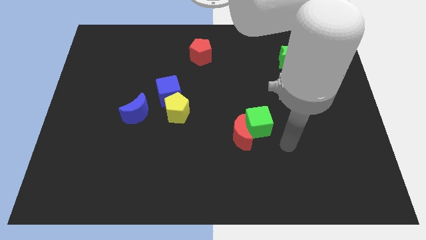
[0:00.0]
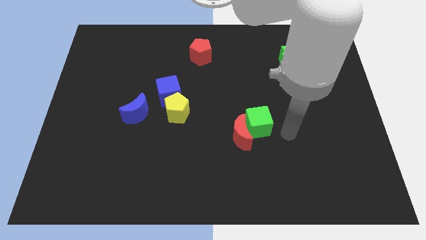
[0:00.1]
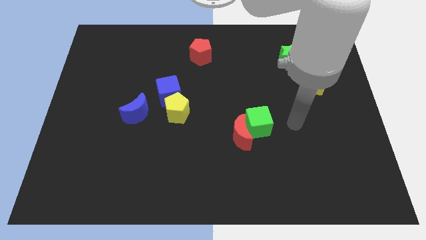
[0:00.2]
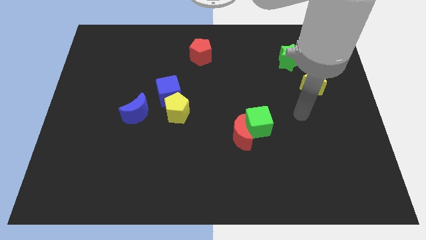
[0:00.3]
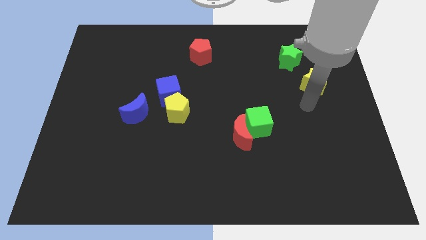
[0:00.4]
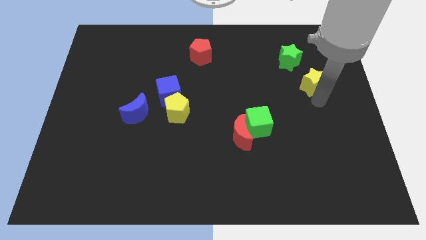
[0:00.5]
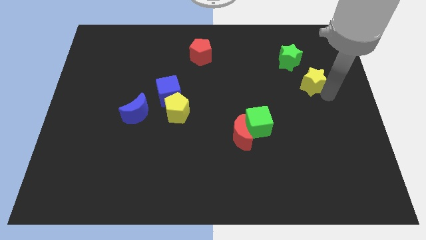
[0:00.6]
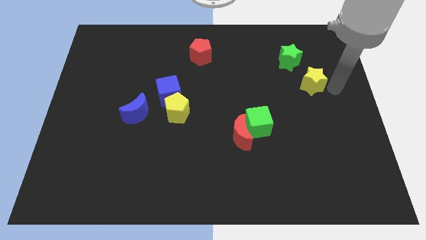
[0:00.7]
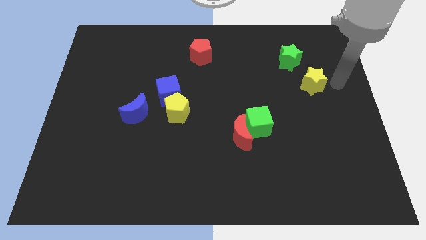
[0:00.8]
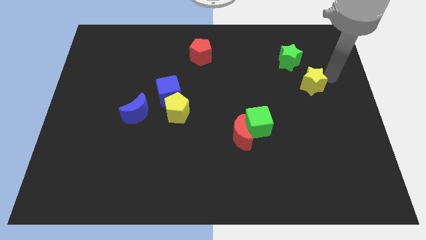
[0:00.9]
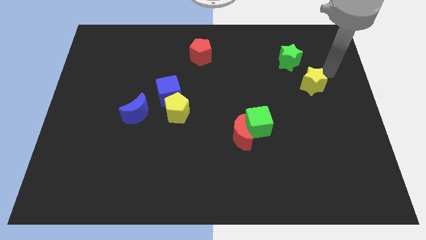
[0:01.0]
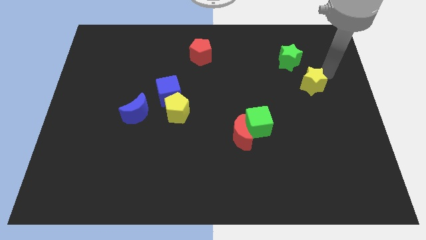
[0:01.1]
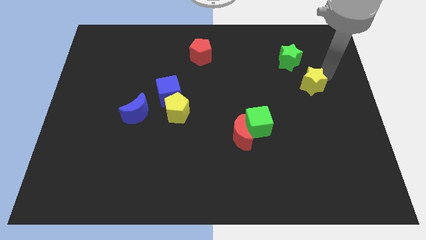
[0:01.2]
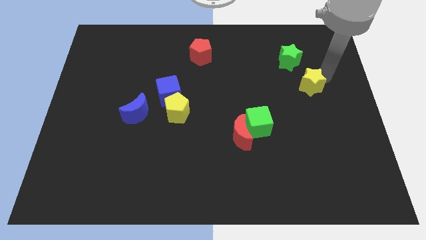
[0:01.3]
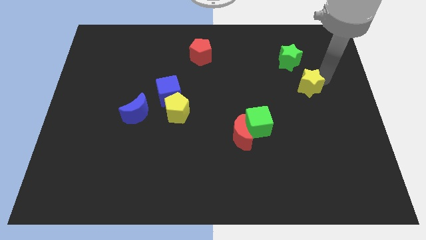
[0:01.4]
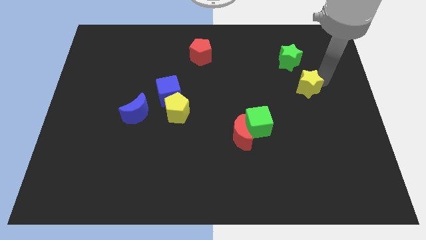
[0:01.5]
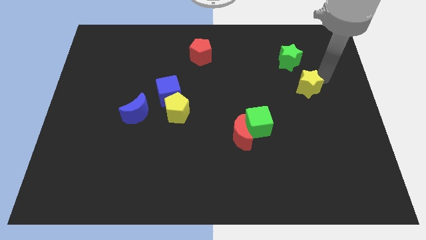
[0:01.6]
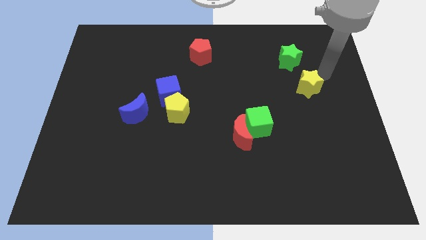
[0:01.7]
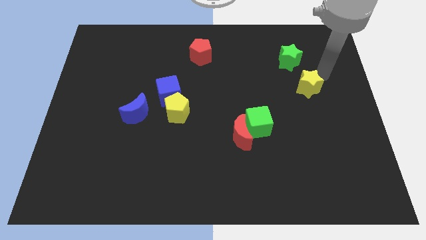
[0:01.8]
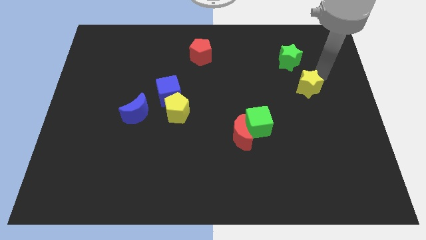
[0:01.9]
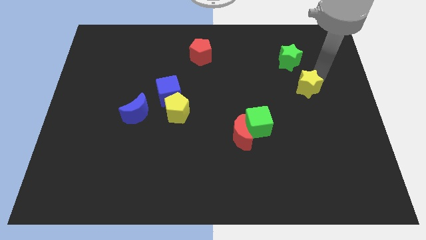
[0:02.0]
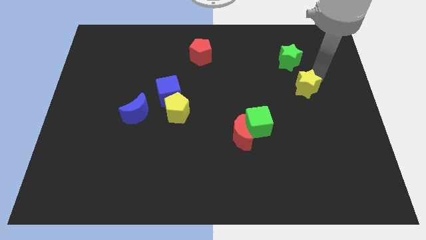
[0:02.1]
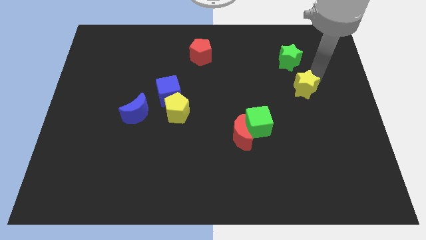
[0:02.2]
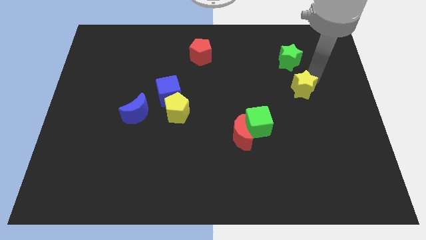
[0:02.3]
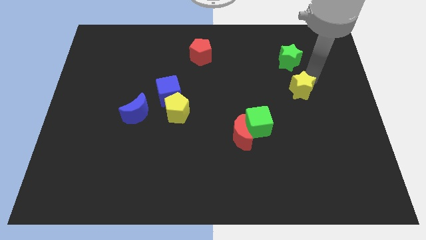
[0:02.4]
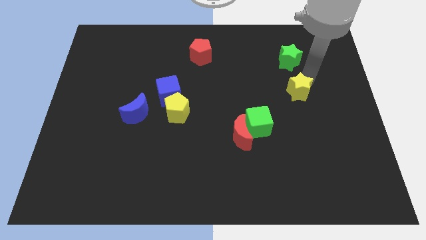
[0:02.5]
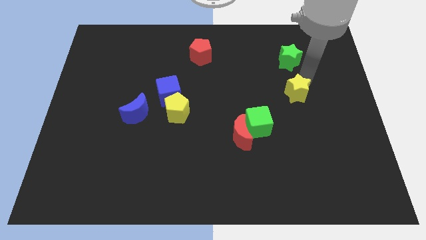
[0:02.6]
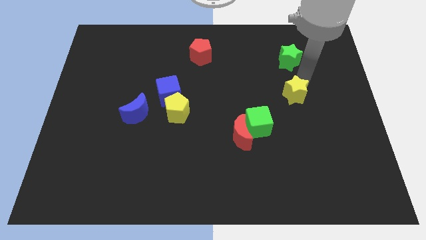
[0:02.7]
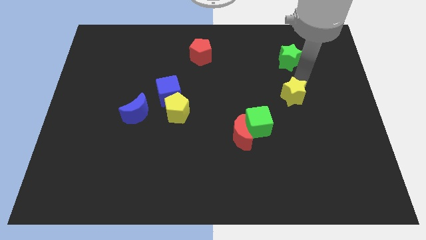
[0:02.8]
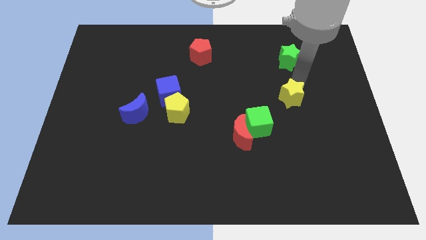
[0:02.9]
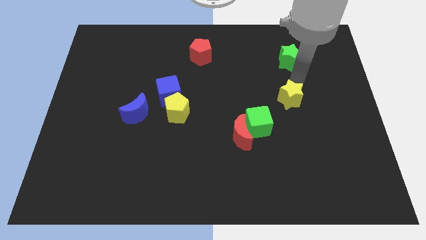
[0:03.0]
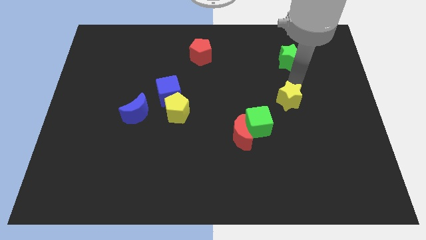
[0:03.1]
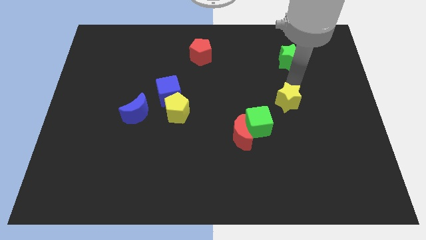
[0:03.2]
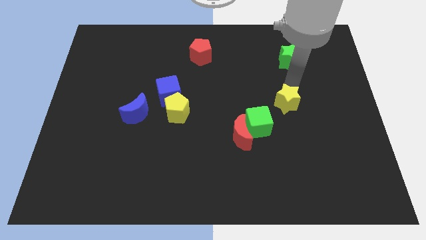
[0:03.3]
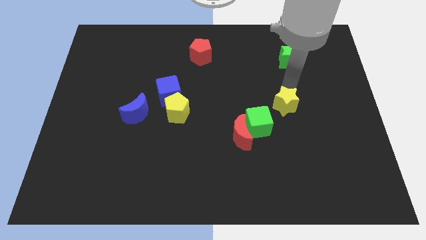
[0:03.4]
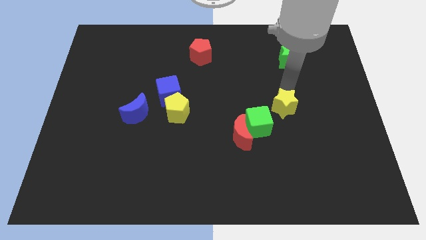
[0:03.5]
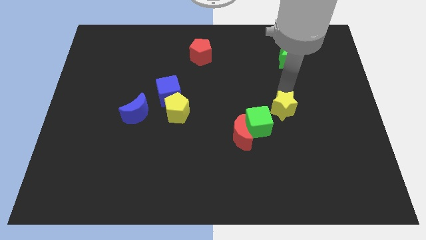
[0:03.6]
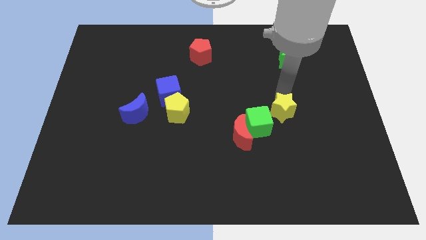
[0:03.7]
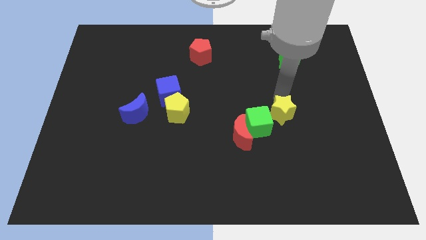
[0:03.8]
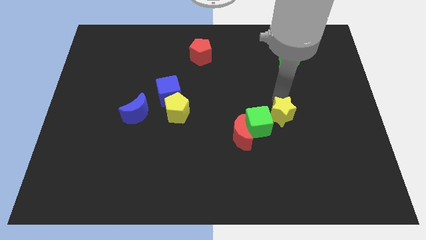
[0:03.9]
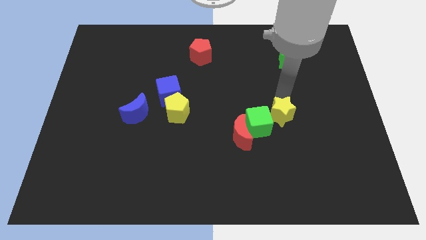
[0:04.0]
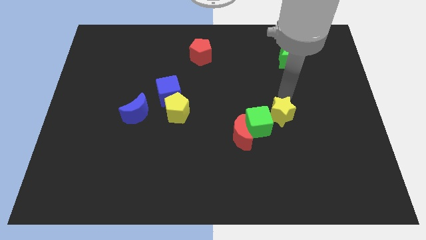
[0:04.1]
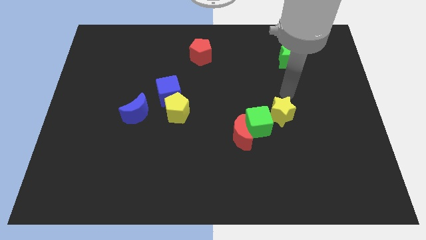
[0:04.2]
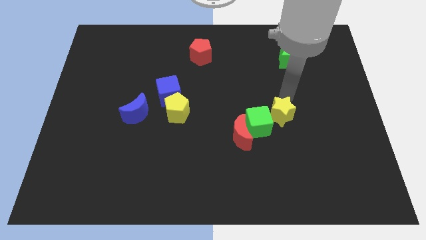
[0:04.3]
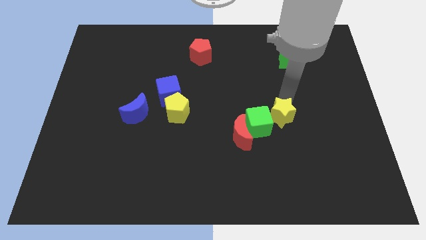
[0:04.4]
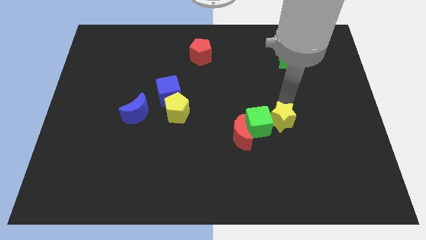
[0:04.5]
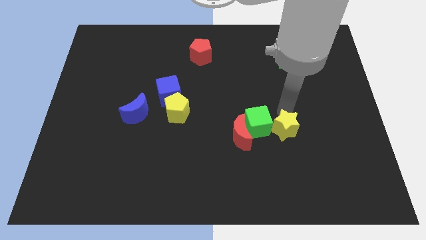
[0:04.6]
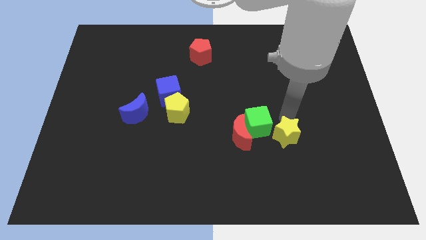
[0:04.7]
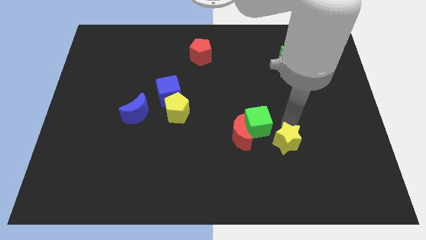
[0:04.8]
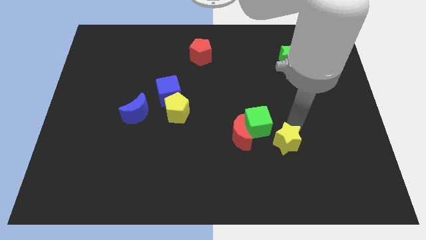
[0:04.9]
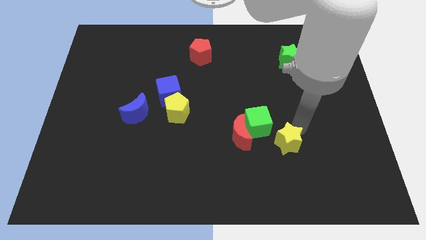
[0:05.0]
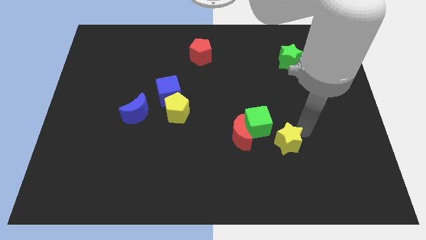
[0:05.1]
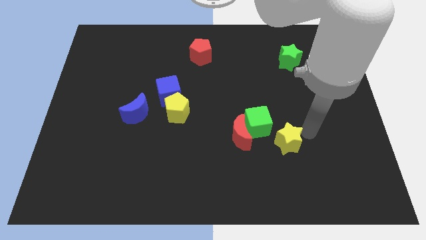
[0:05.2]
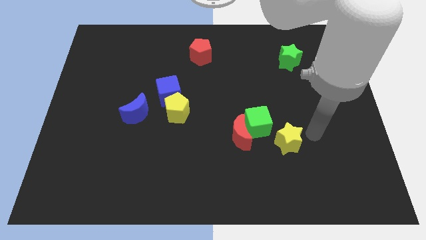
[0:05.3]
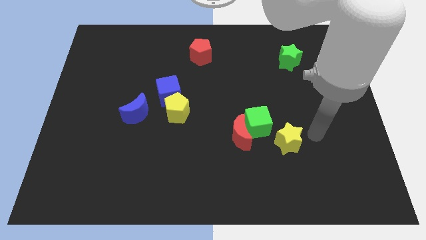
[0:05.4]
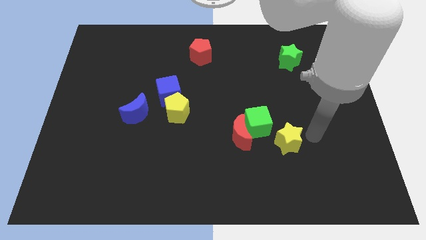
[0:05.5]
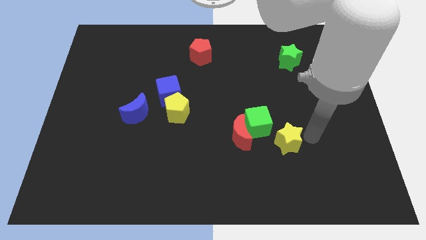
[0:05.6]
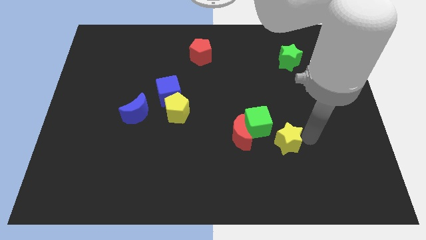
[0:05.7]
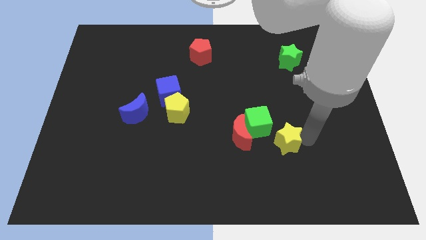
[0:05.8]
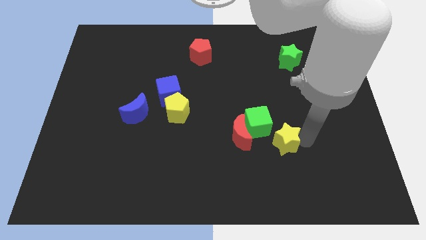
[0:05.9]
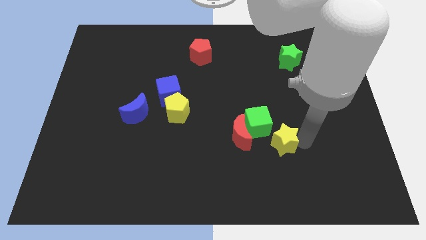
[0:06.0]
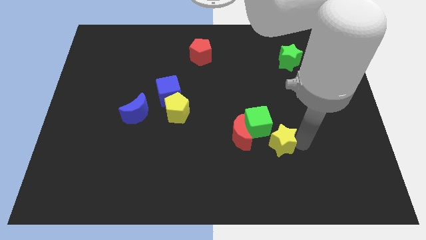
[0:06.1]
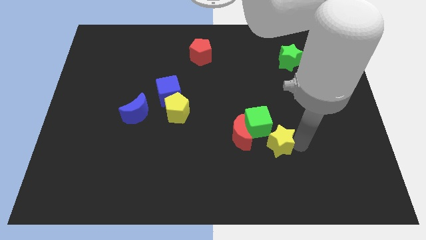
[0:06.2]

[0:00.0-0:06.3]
slide the yellow star below the green cube

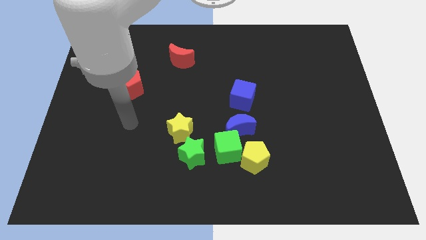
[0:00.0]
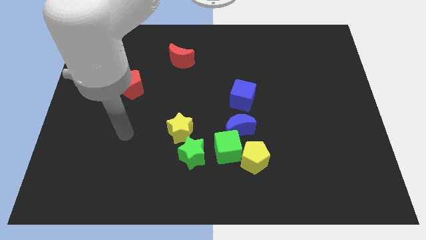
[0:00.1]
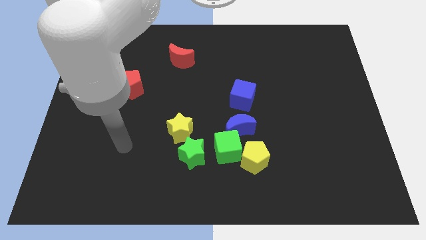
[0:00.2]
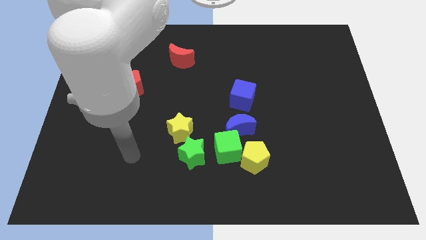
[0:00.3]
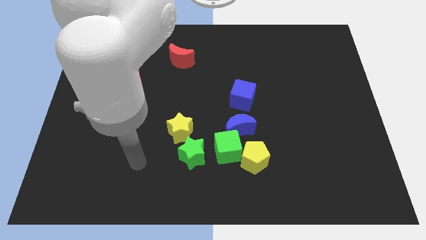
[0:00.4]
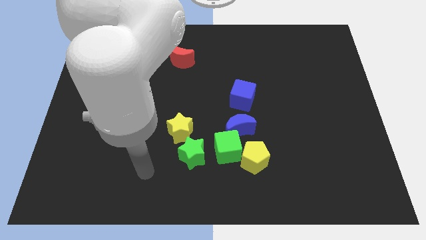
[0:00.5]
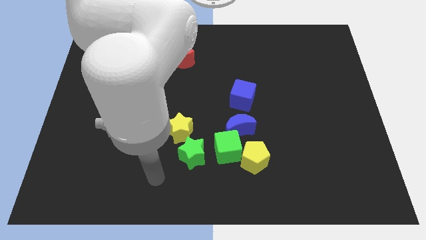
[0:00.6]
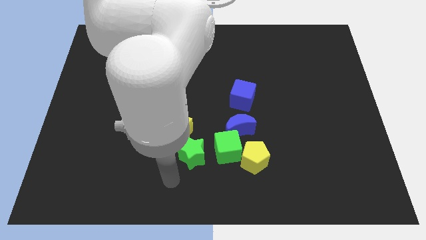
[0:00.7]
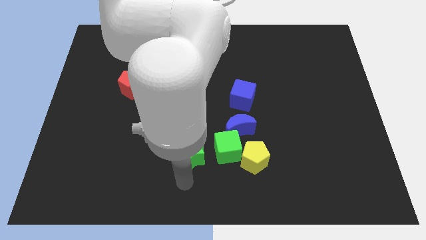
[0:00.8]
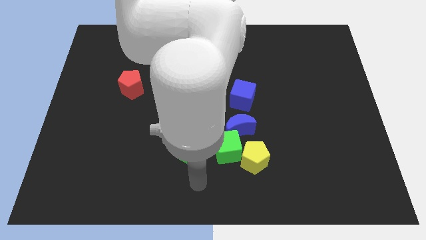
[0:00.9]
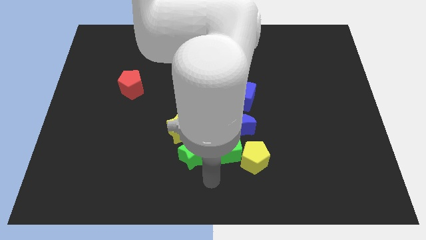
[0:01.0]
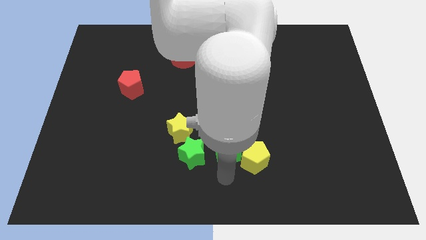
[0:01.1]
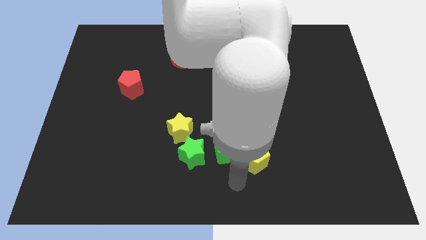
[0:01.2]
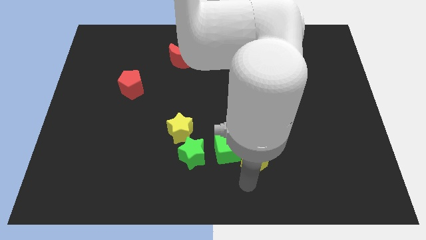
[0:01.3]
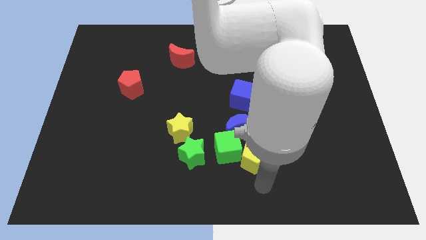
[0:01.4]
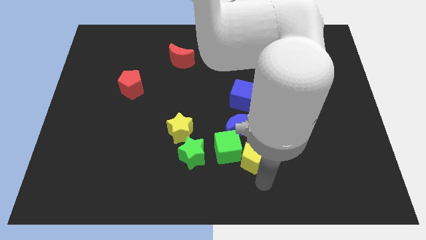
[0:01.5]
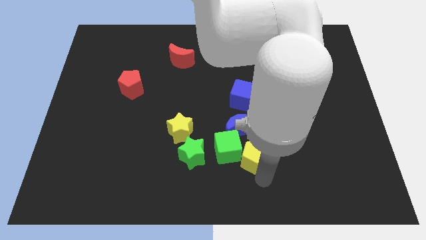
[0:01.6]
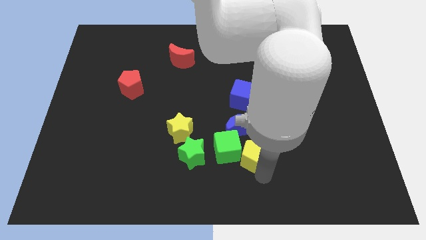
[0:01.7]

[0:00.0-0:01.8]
push the yellow pentagon below the blue cube

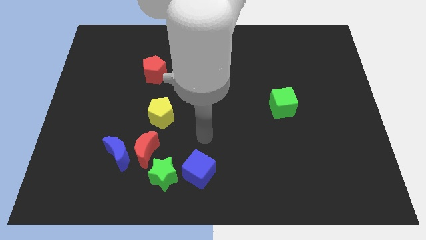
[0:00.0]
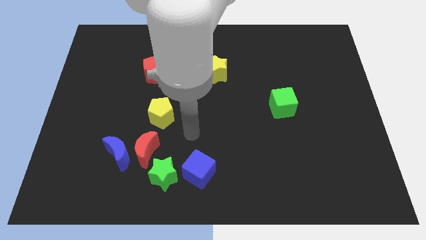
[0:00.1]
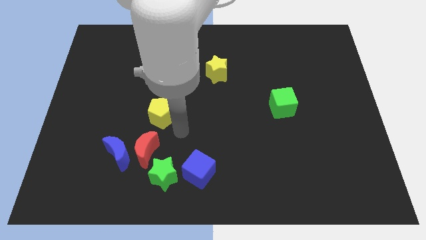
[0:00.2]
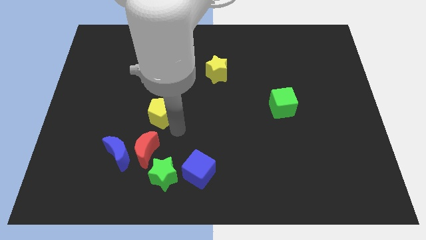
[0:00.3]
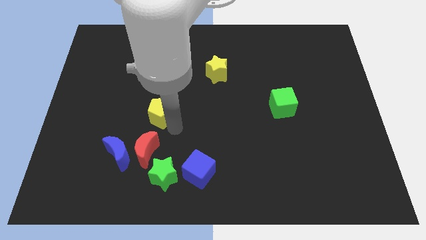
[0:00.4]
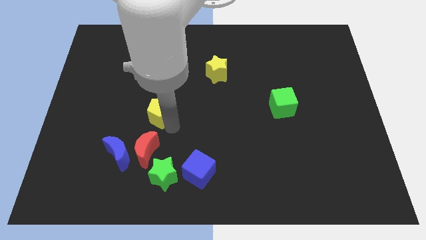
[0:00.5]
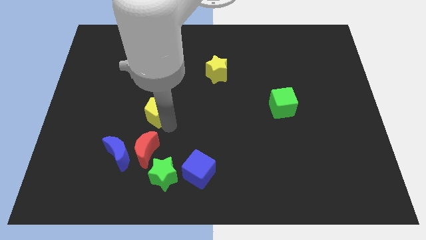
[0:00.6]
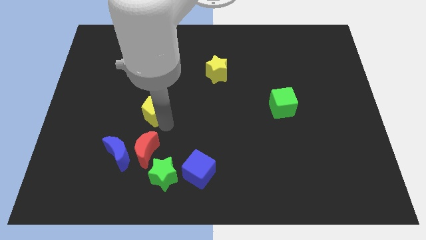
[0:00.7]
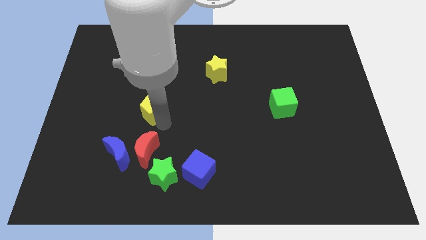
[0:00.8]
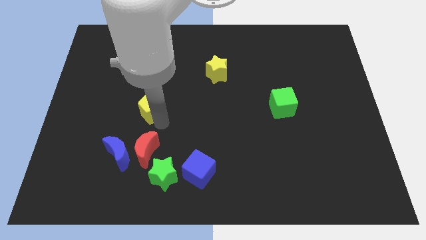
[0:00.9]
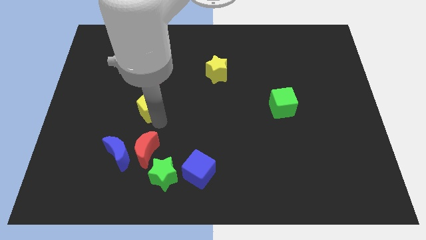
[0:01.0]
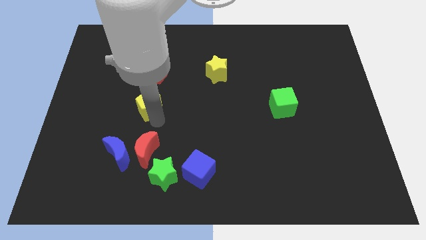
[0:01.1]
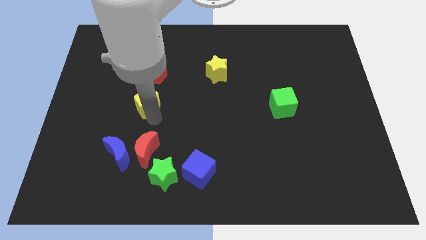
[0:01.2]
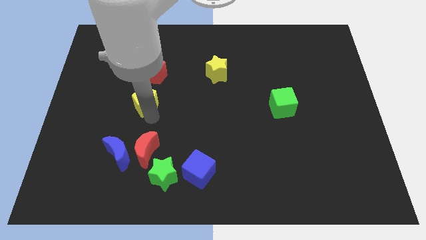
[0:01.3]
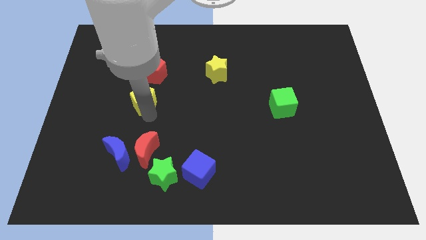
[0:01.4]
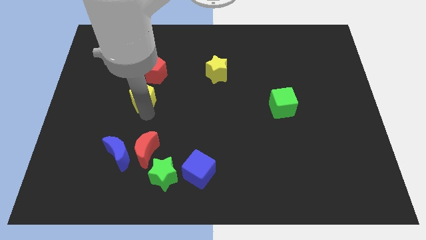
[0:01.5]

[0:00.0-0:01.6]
put the yellow pentagon to the bottom left side of the red pentagon
